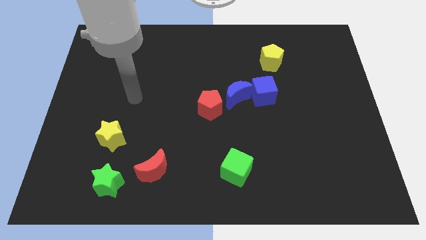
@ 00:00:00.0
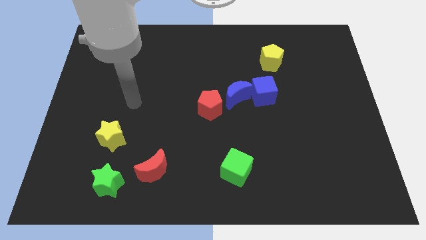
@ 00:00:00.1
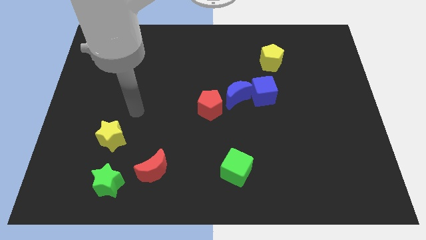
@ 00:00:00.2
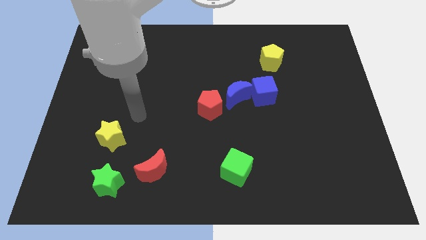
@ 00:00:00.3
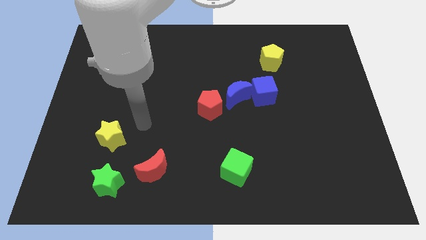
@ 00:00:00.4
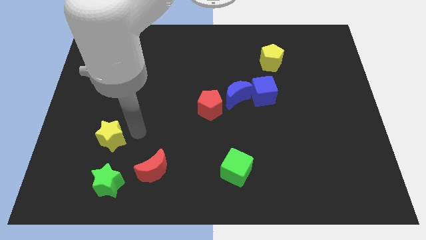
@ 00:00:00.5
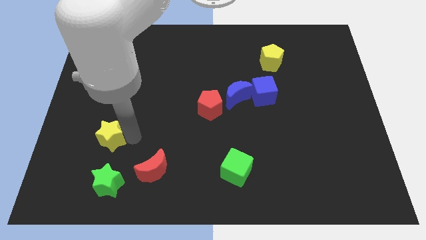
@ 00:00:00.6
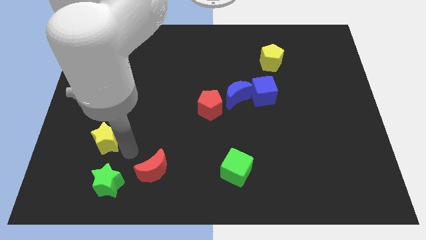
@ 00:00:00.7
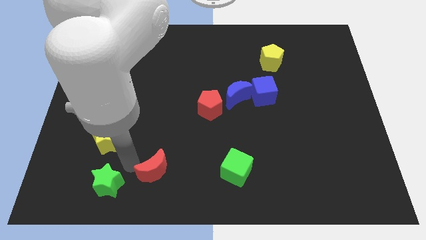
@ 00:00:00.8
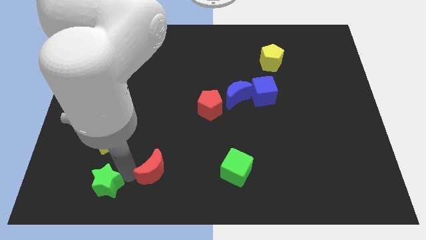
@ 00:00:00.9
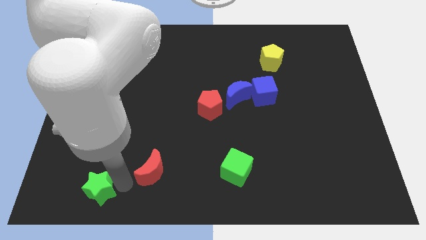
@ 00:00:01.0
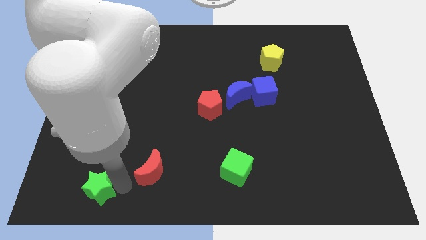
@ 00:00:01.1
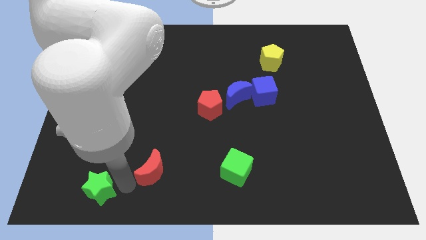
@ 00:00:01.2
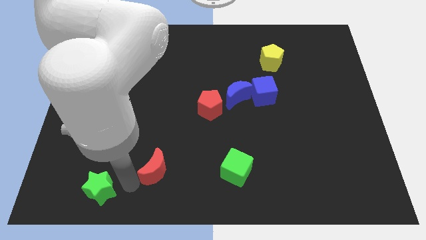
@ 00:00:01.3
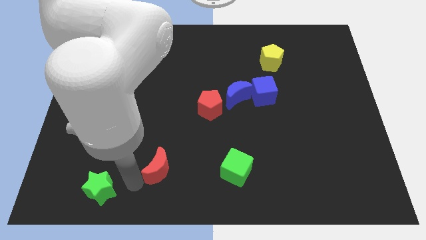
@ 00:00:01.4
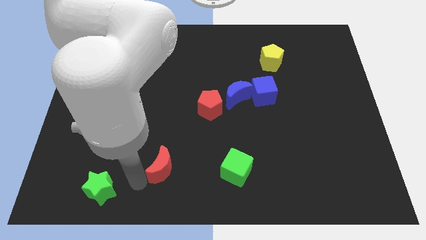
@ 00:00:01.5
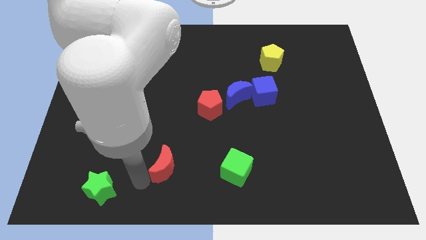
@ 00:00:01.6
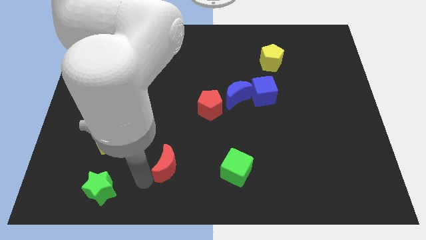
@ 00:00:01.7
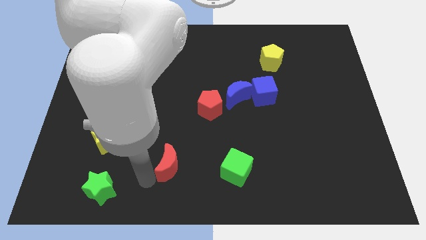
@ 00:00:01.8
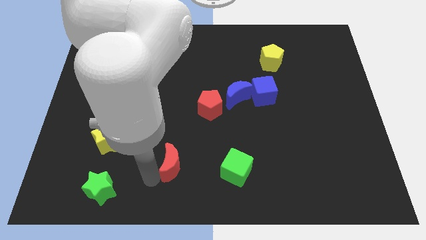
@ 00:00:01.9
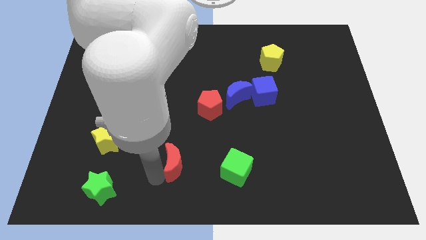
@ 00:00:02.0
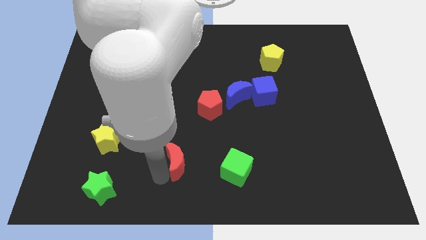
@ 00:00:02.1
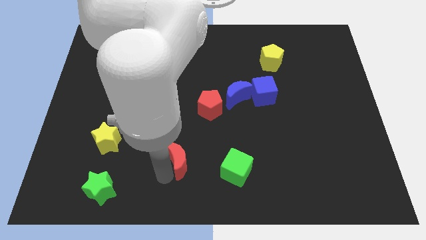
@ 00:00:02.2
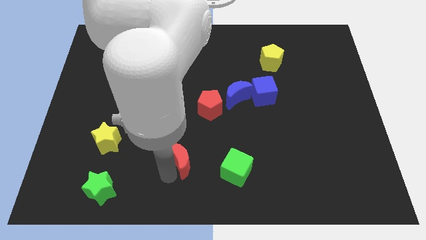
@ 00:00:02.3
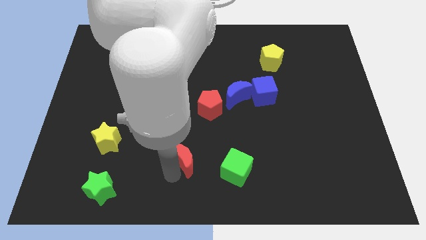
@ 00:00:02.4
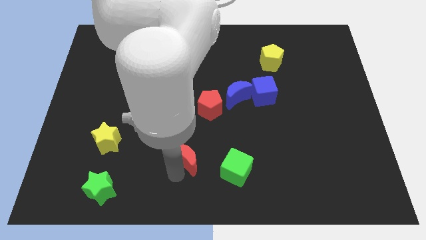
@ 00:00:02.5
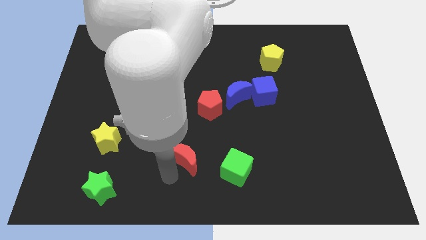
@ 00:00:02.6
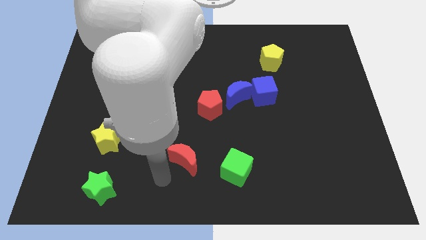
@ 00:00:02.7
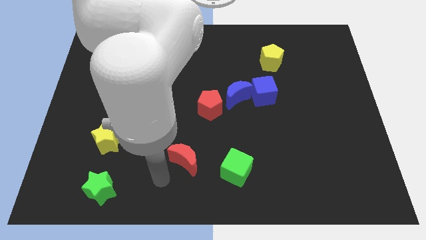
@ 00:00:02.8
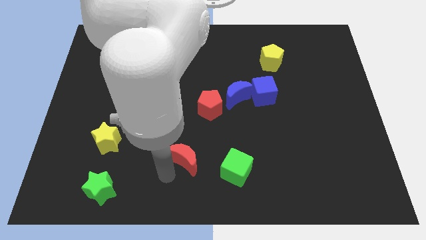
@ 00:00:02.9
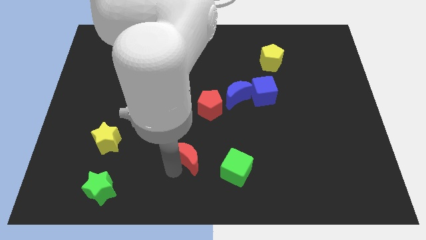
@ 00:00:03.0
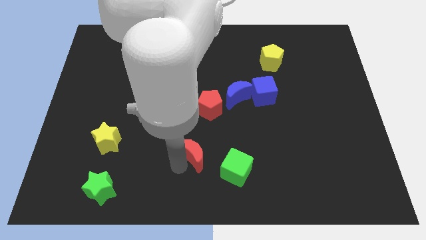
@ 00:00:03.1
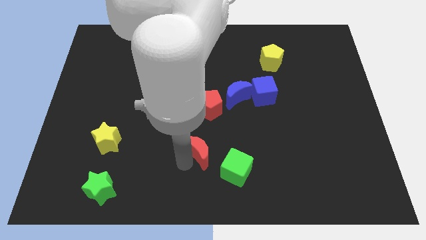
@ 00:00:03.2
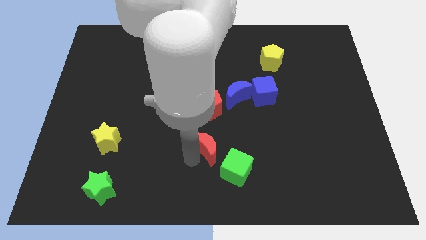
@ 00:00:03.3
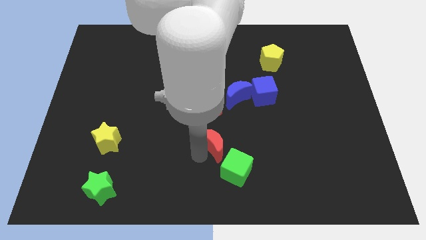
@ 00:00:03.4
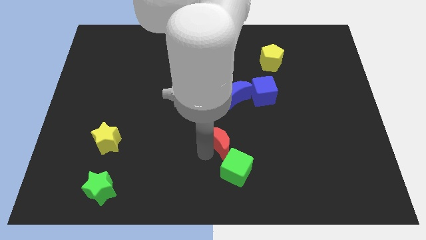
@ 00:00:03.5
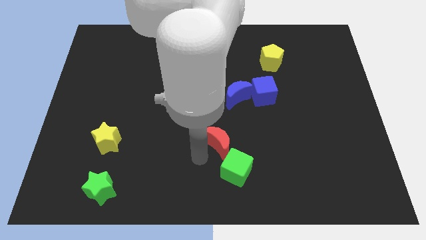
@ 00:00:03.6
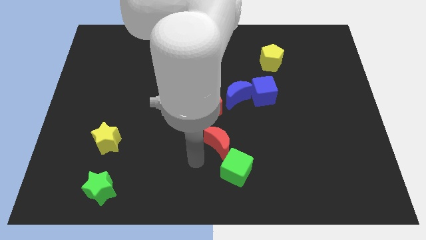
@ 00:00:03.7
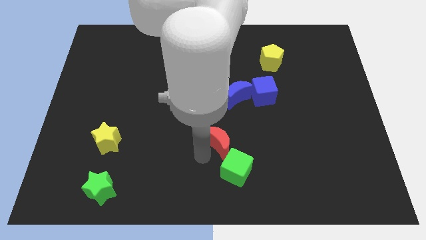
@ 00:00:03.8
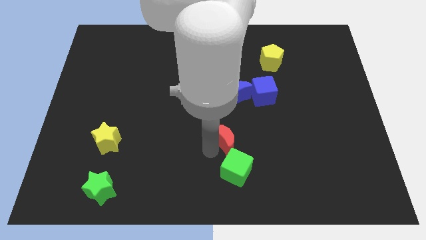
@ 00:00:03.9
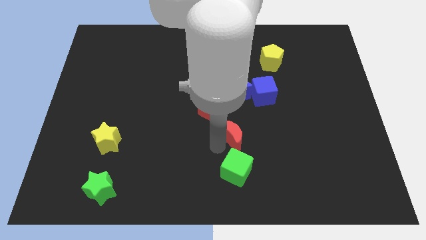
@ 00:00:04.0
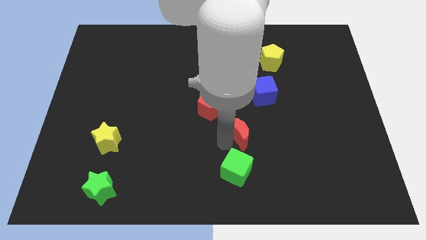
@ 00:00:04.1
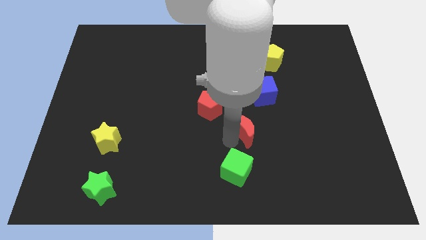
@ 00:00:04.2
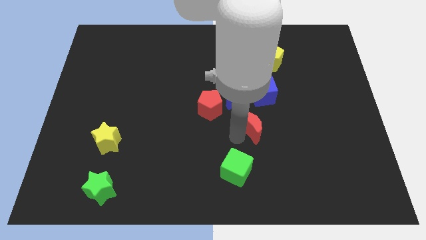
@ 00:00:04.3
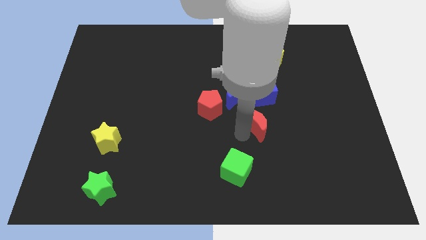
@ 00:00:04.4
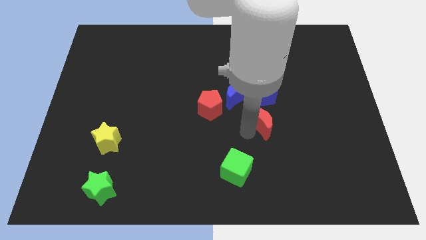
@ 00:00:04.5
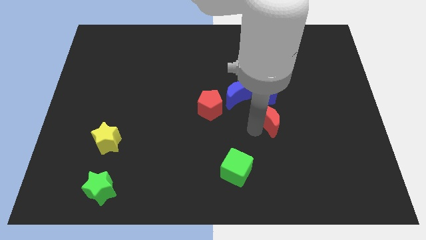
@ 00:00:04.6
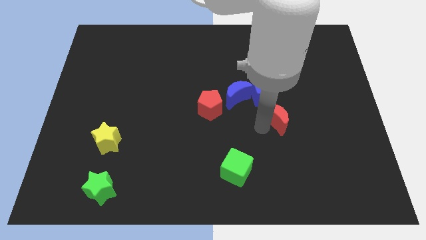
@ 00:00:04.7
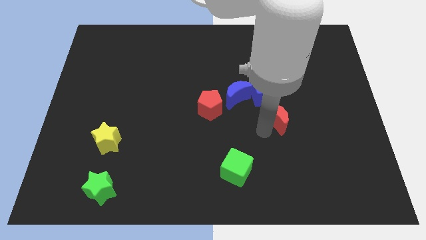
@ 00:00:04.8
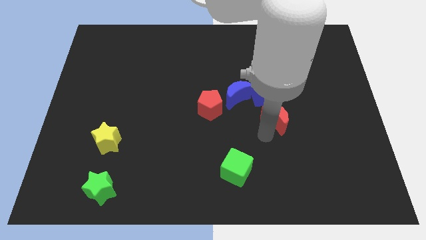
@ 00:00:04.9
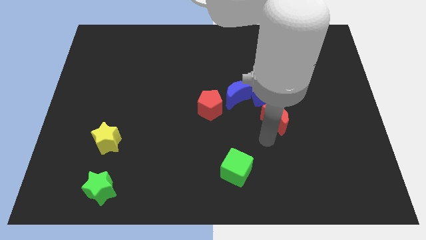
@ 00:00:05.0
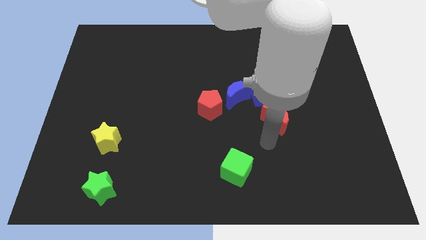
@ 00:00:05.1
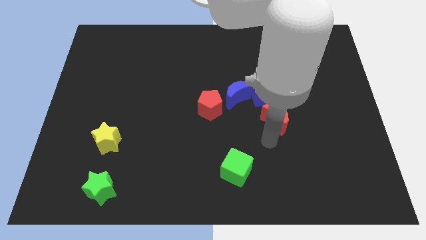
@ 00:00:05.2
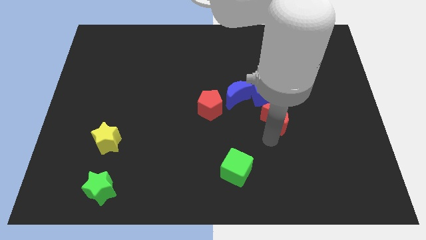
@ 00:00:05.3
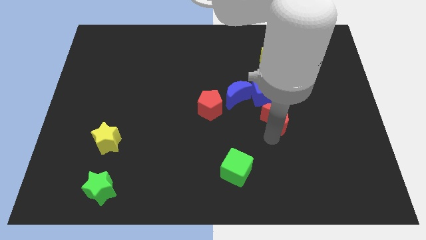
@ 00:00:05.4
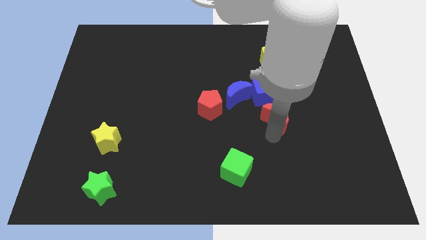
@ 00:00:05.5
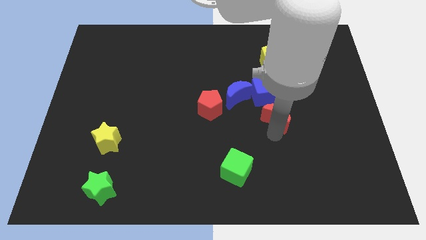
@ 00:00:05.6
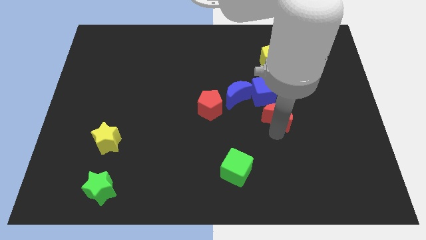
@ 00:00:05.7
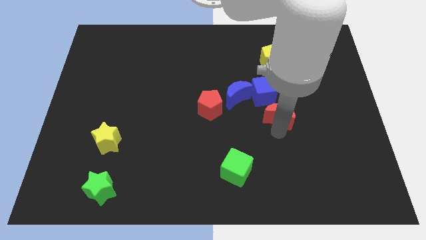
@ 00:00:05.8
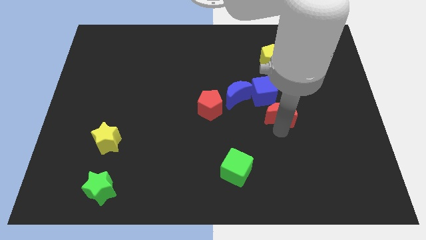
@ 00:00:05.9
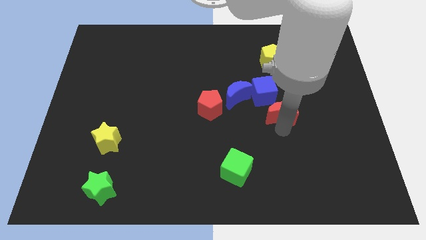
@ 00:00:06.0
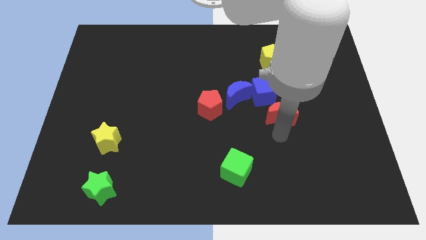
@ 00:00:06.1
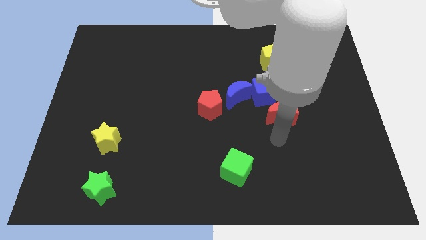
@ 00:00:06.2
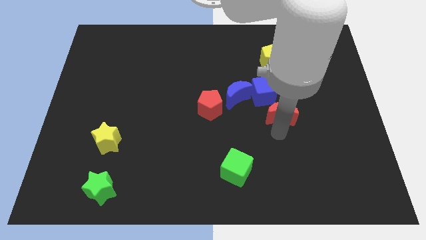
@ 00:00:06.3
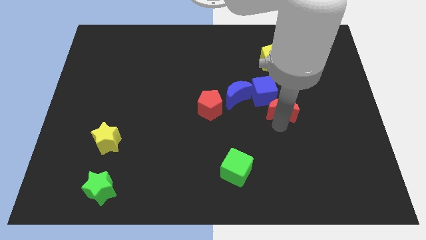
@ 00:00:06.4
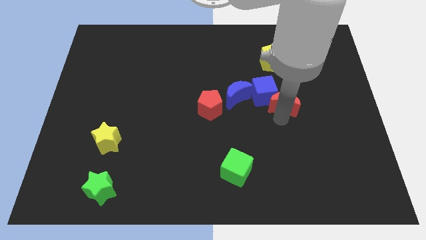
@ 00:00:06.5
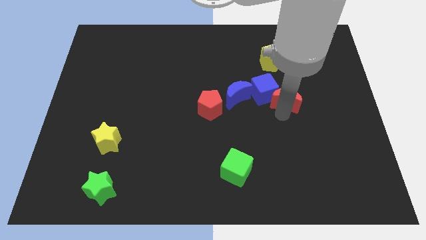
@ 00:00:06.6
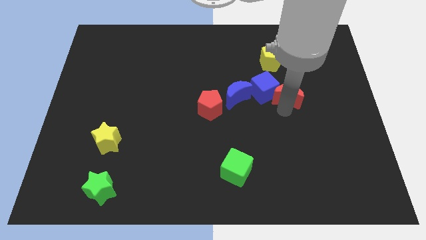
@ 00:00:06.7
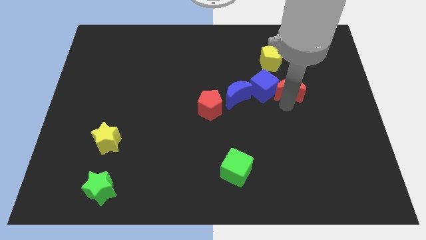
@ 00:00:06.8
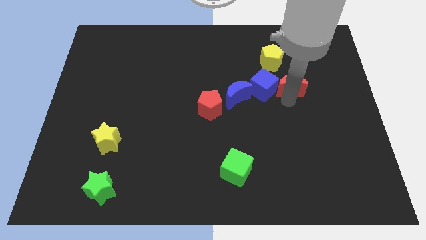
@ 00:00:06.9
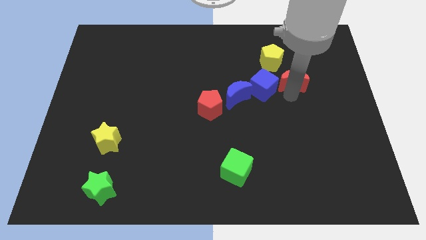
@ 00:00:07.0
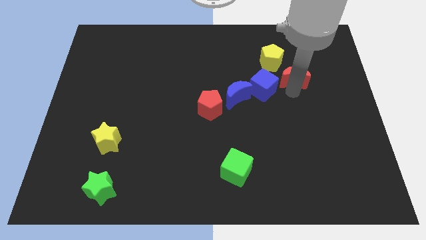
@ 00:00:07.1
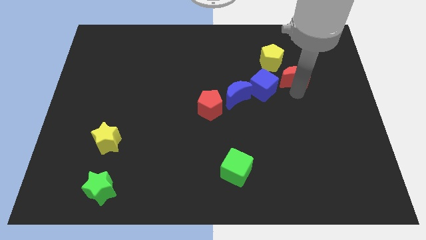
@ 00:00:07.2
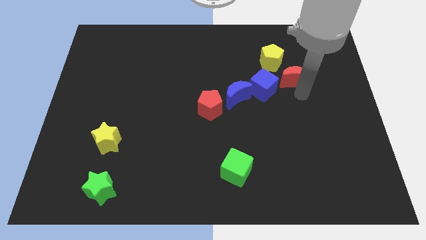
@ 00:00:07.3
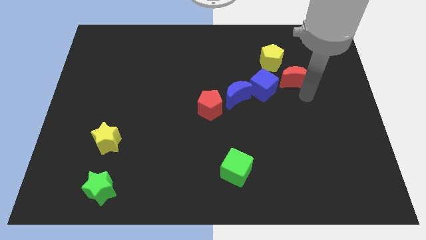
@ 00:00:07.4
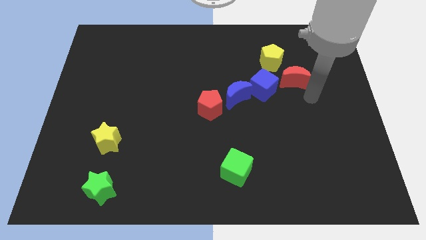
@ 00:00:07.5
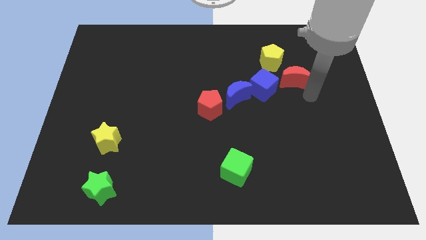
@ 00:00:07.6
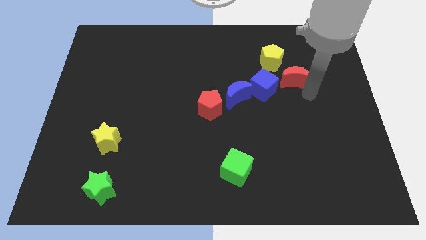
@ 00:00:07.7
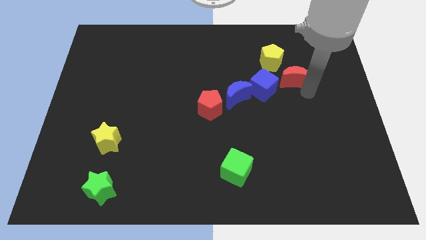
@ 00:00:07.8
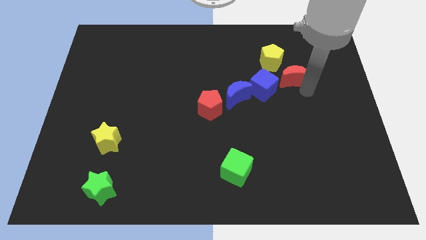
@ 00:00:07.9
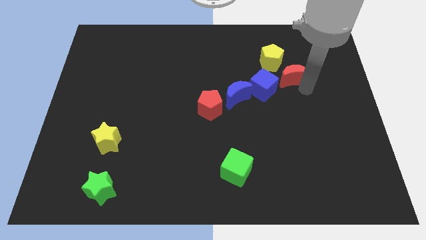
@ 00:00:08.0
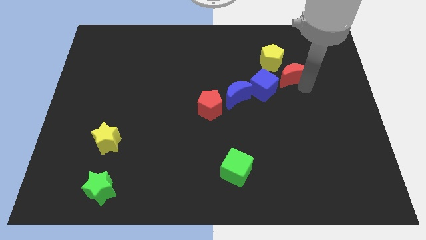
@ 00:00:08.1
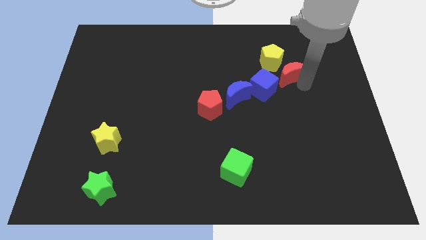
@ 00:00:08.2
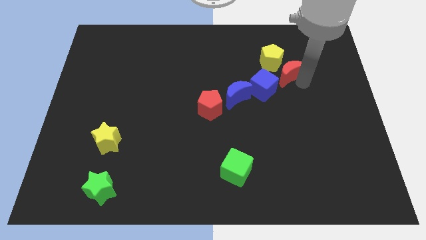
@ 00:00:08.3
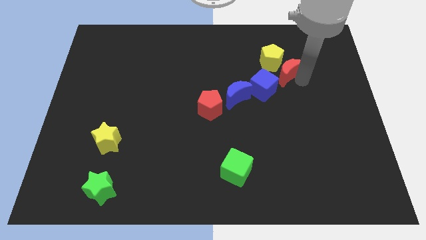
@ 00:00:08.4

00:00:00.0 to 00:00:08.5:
slide the red moon close to the yellow pentagon
